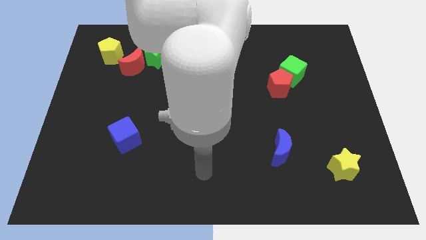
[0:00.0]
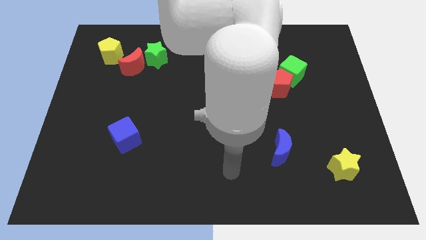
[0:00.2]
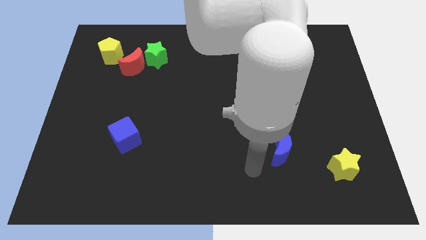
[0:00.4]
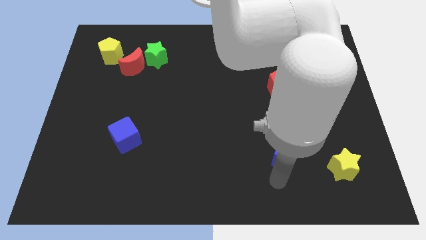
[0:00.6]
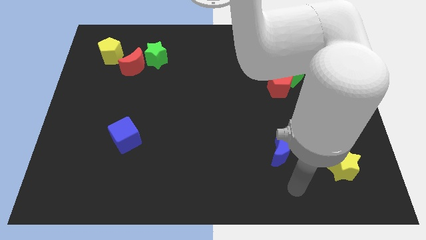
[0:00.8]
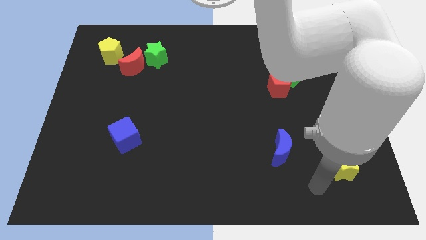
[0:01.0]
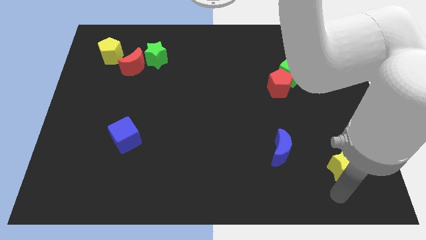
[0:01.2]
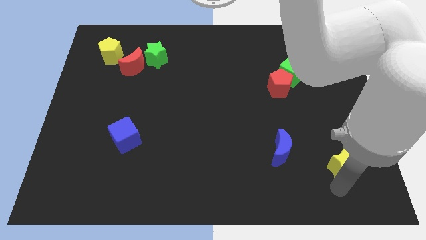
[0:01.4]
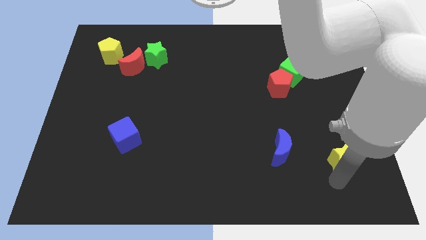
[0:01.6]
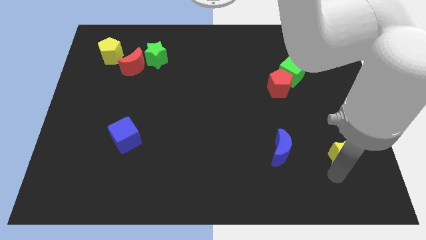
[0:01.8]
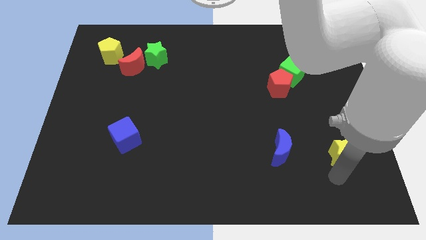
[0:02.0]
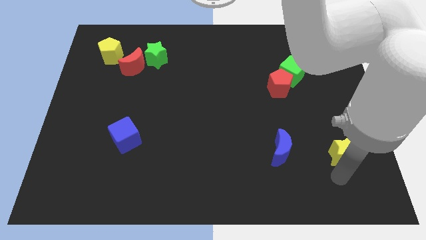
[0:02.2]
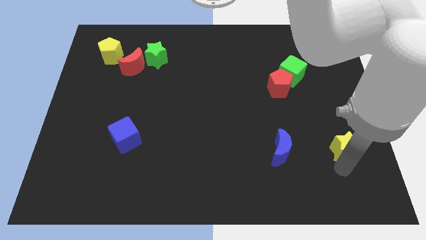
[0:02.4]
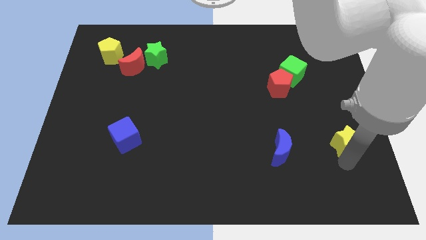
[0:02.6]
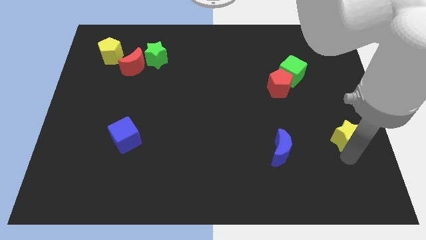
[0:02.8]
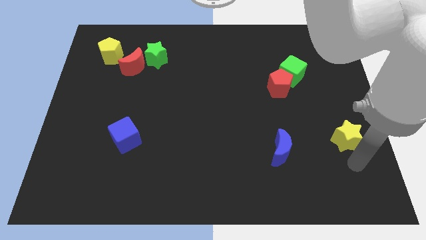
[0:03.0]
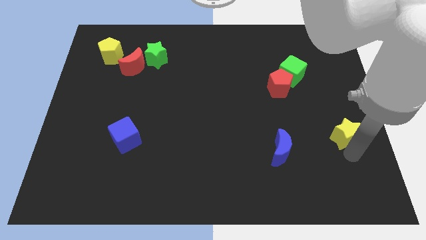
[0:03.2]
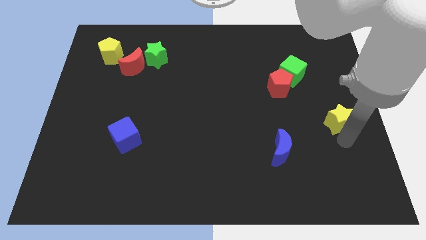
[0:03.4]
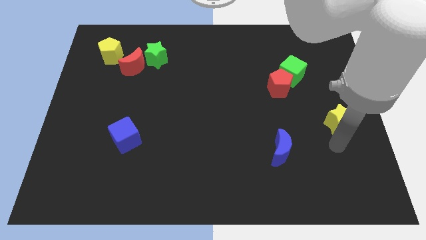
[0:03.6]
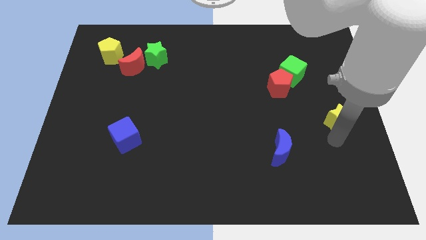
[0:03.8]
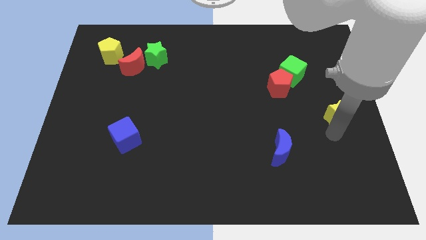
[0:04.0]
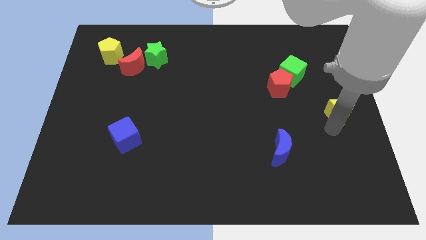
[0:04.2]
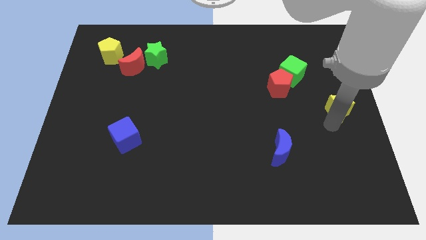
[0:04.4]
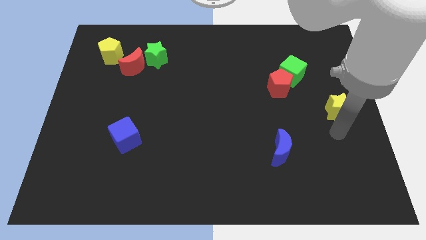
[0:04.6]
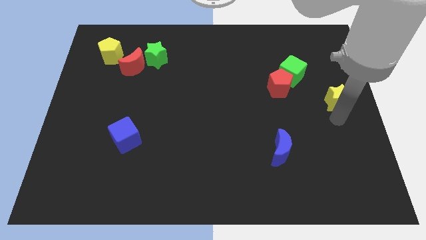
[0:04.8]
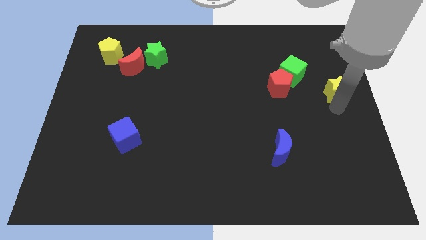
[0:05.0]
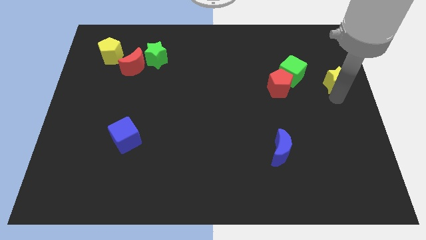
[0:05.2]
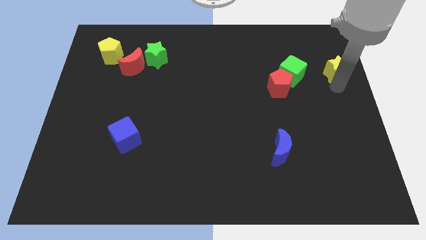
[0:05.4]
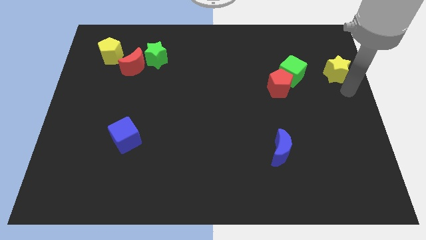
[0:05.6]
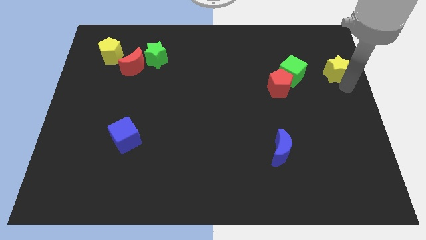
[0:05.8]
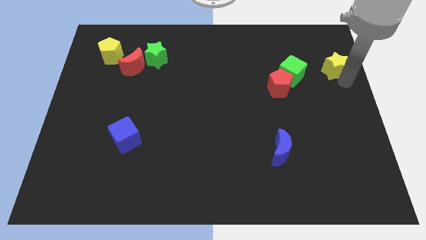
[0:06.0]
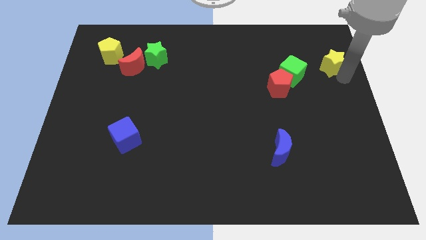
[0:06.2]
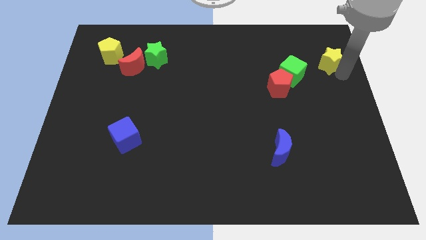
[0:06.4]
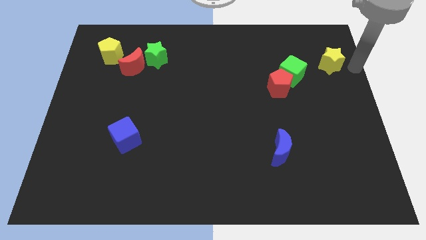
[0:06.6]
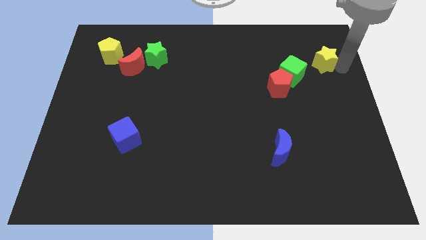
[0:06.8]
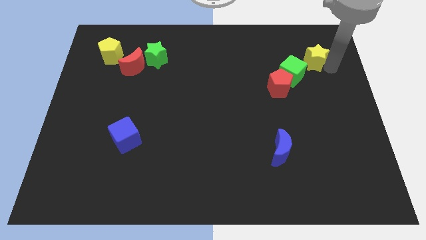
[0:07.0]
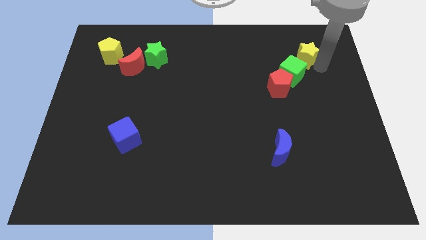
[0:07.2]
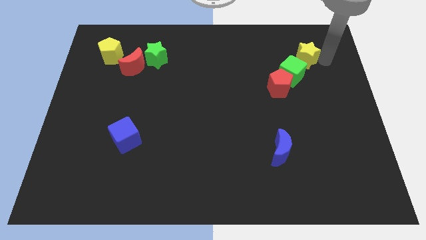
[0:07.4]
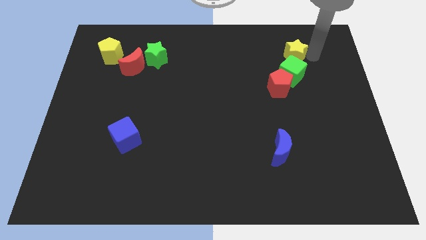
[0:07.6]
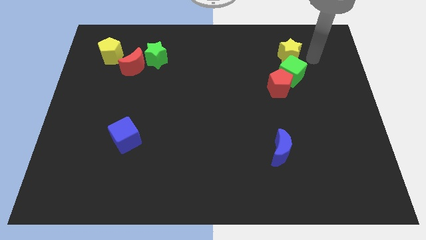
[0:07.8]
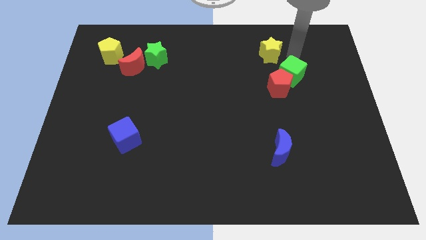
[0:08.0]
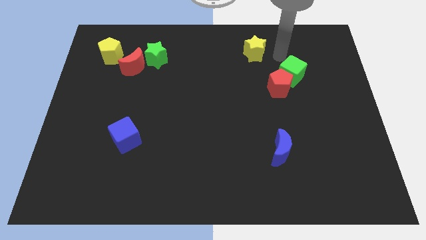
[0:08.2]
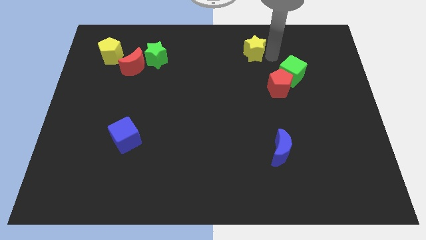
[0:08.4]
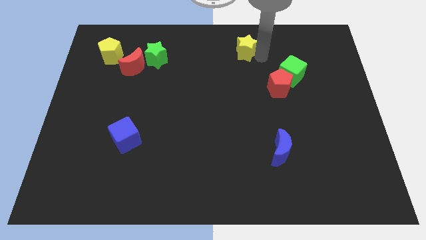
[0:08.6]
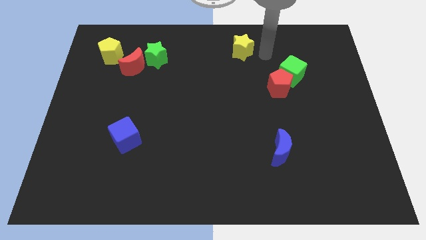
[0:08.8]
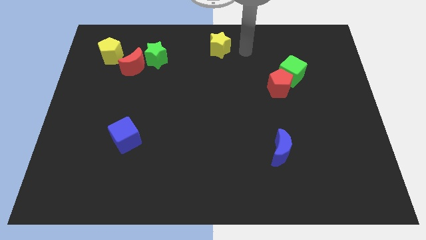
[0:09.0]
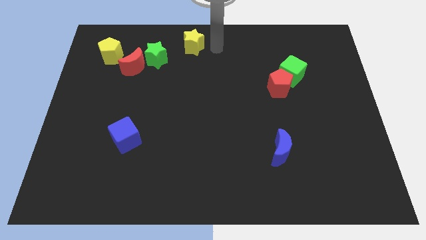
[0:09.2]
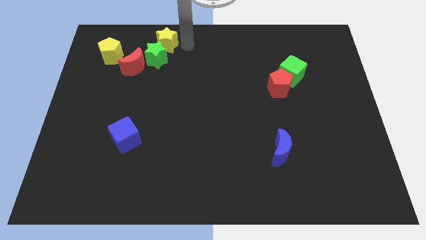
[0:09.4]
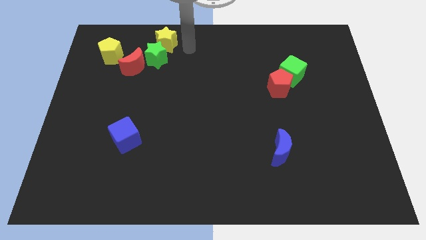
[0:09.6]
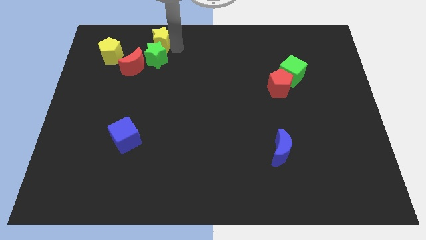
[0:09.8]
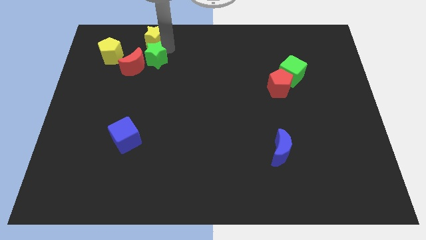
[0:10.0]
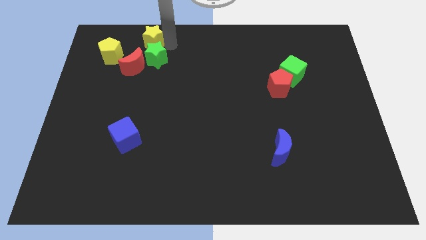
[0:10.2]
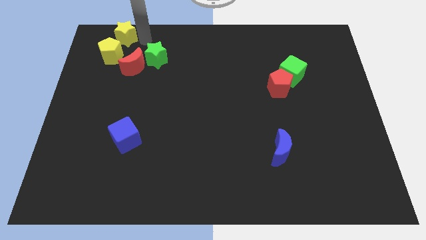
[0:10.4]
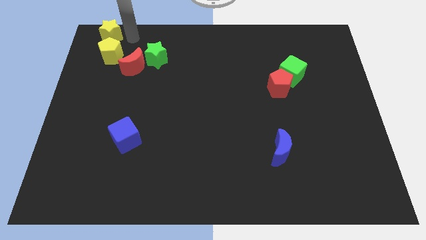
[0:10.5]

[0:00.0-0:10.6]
put the yellow star to the top left of the board

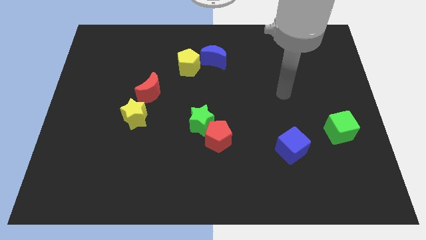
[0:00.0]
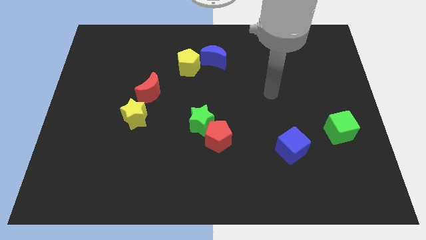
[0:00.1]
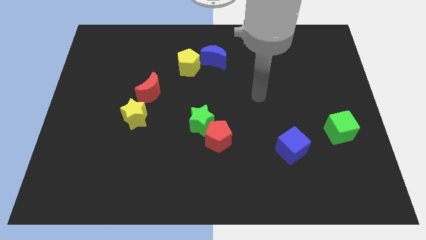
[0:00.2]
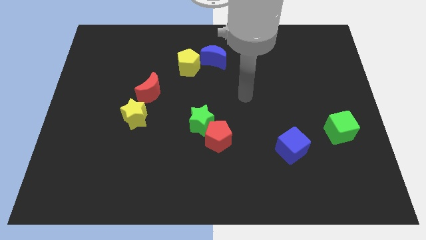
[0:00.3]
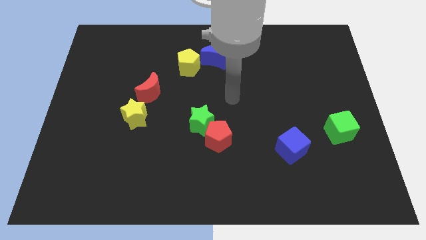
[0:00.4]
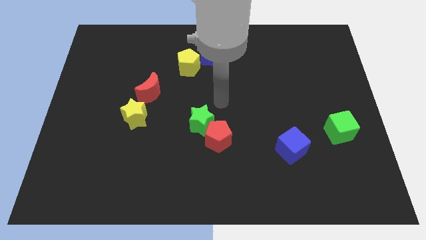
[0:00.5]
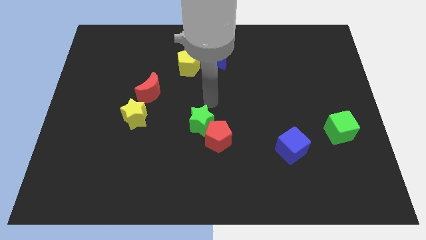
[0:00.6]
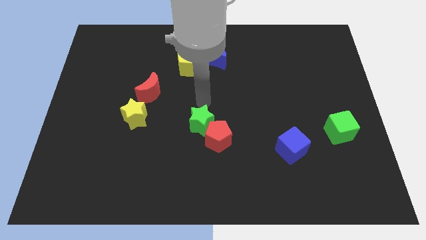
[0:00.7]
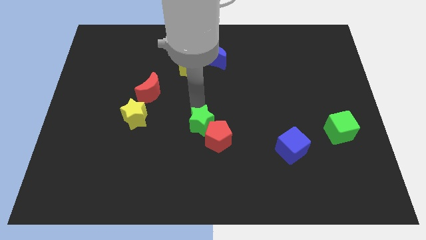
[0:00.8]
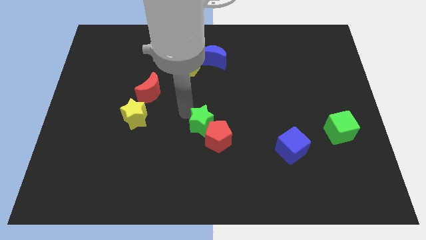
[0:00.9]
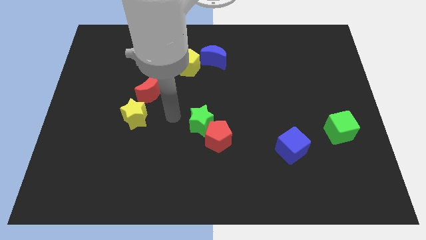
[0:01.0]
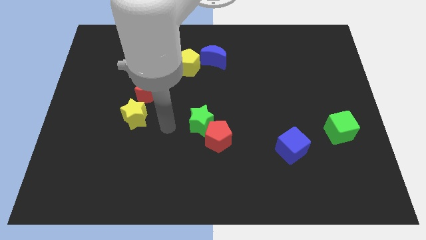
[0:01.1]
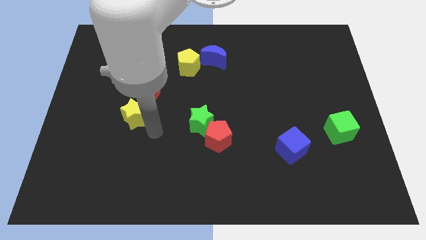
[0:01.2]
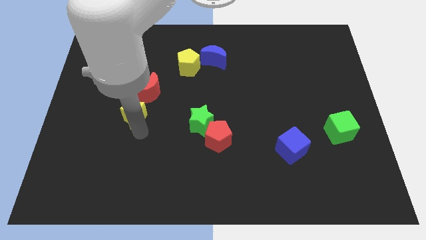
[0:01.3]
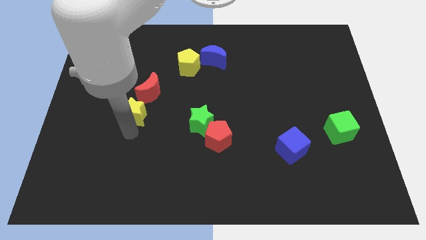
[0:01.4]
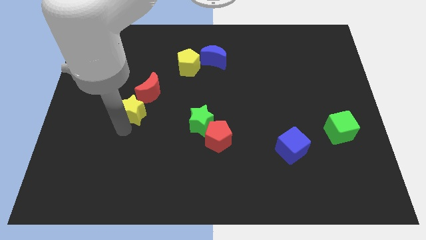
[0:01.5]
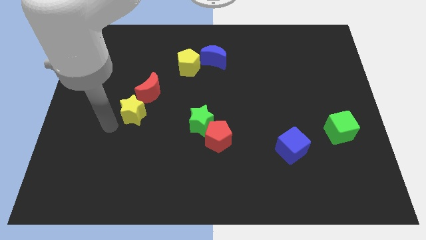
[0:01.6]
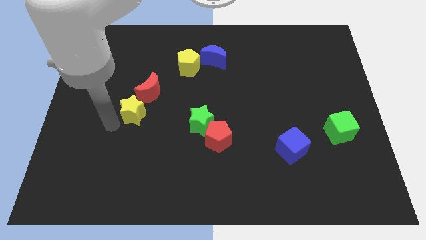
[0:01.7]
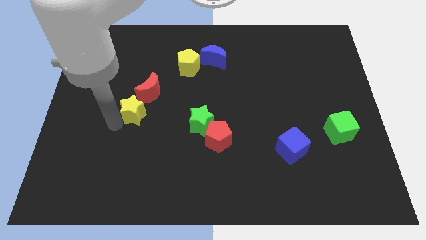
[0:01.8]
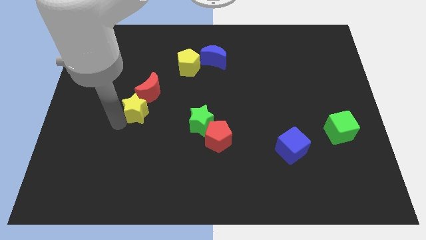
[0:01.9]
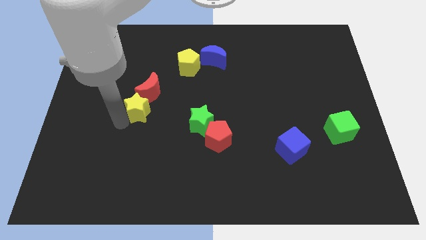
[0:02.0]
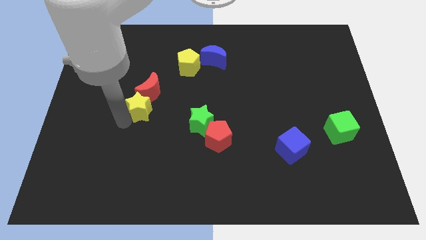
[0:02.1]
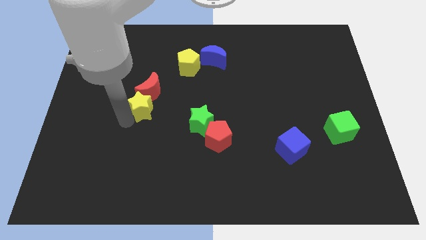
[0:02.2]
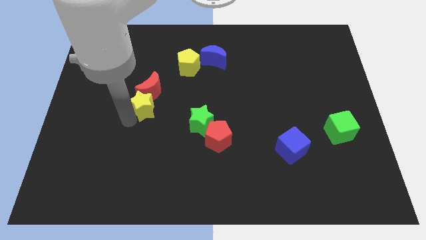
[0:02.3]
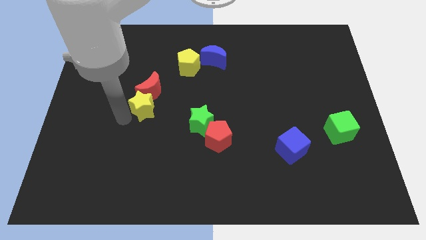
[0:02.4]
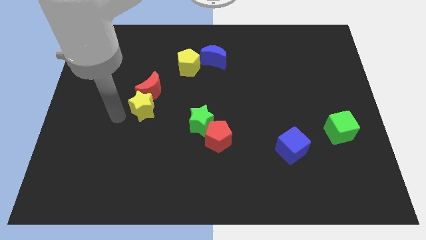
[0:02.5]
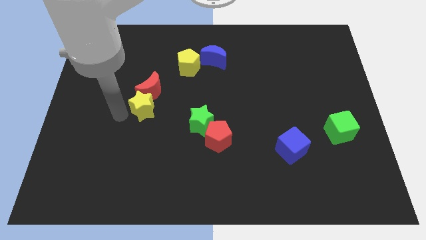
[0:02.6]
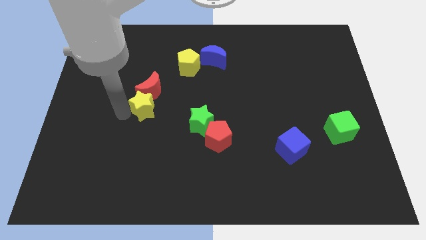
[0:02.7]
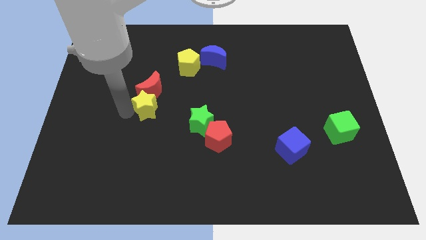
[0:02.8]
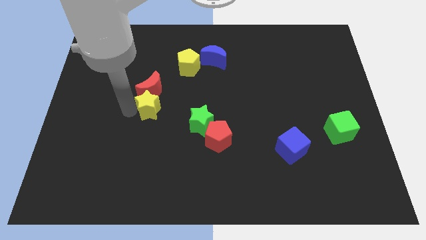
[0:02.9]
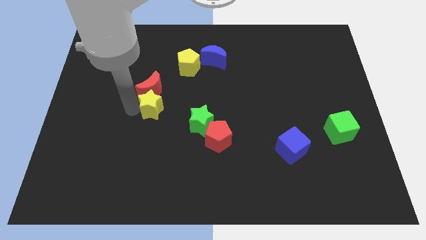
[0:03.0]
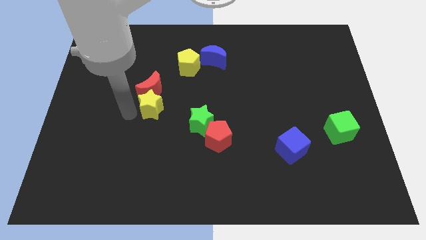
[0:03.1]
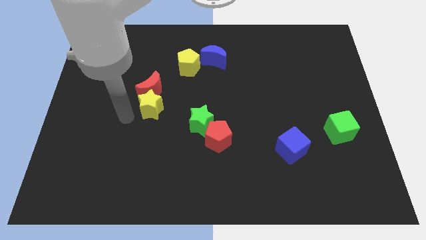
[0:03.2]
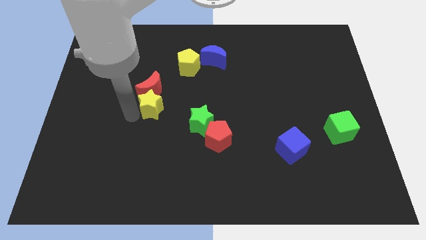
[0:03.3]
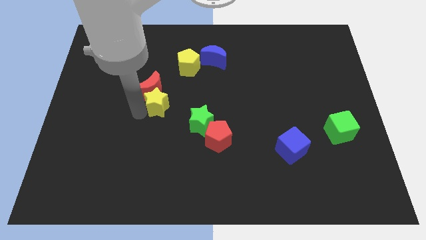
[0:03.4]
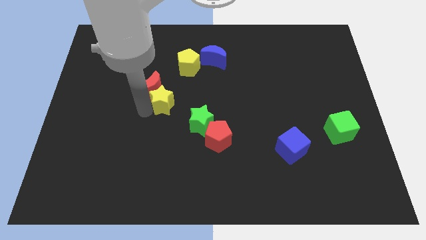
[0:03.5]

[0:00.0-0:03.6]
put the yellow star to the middle of the board
